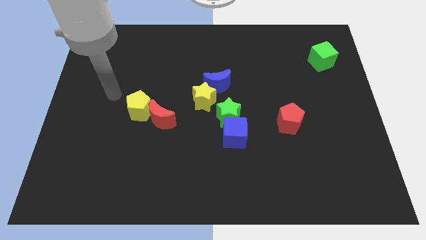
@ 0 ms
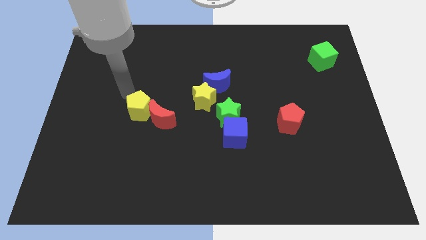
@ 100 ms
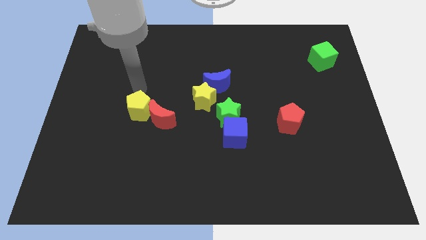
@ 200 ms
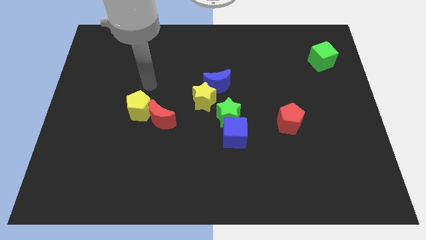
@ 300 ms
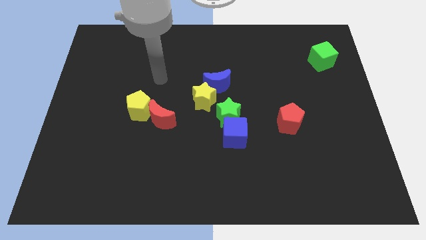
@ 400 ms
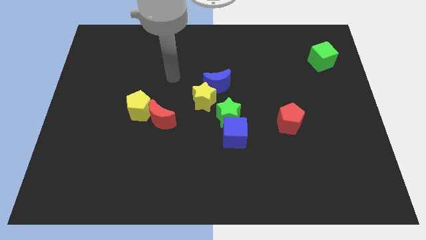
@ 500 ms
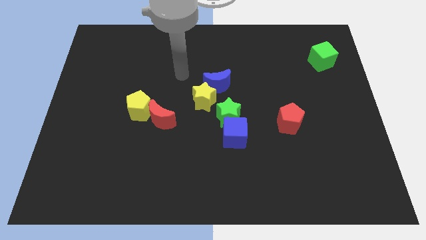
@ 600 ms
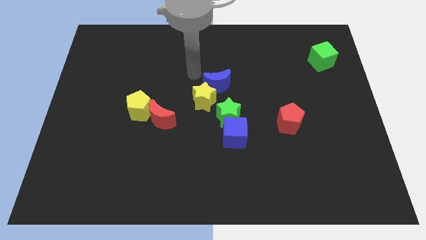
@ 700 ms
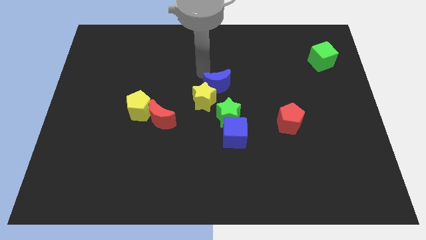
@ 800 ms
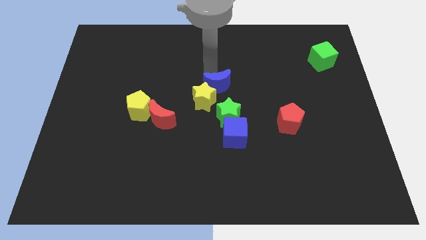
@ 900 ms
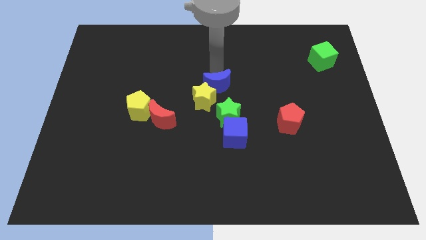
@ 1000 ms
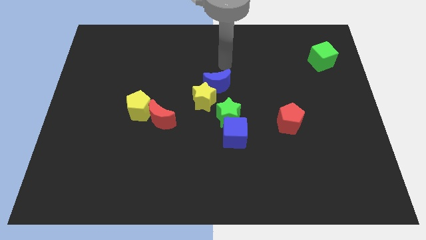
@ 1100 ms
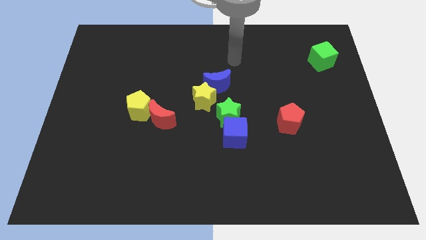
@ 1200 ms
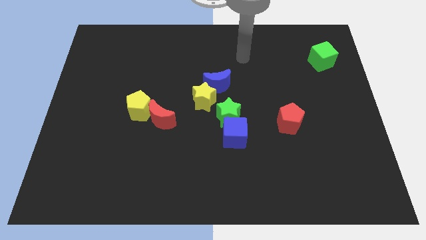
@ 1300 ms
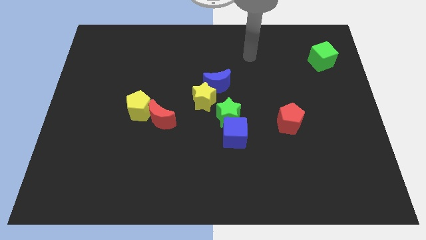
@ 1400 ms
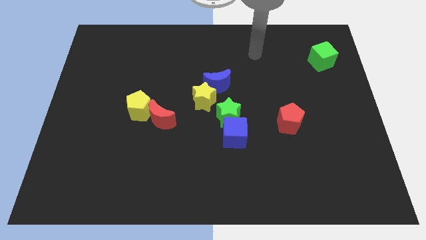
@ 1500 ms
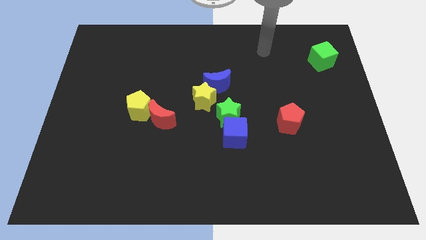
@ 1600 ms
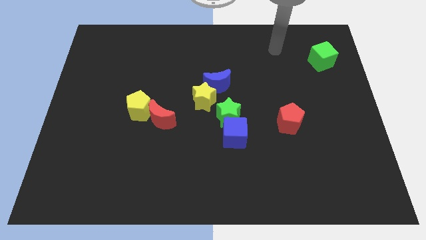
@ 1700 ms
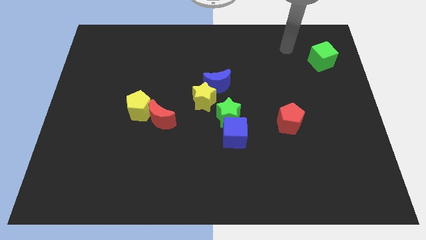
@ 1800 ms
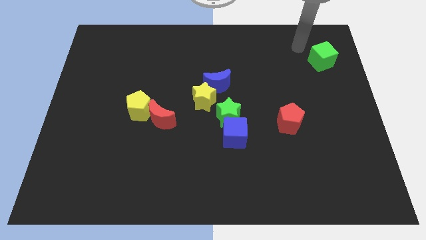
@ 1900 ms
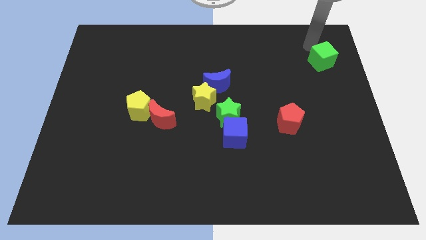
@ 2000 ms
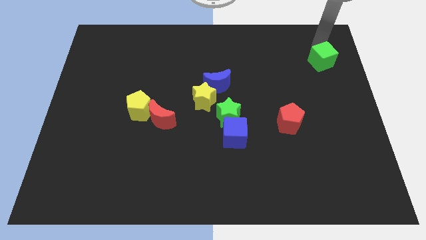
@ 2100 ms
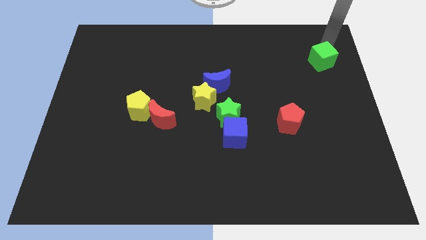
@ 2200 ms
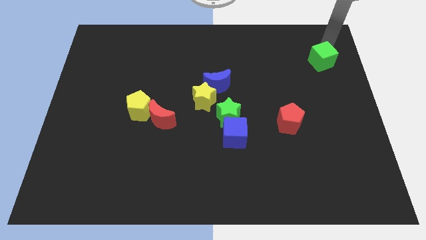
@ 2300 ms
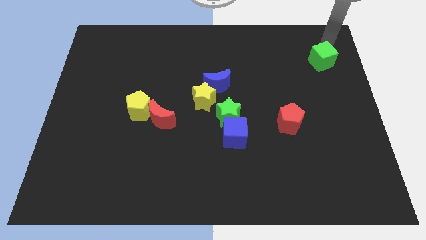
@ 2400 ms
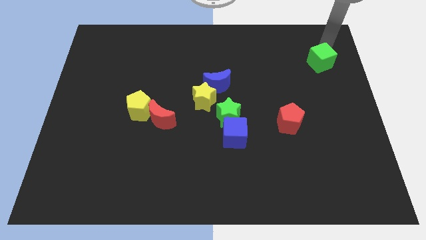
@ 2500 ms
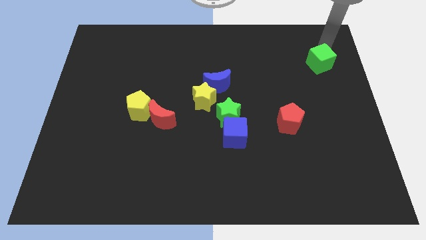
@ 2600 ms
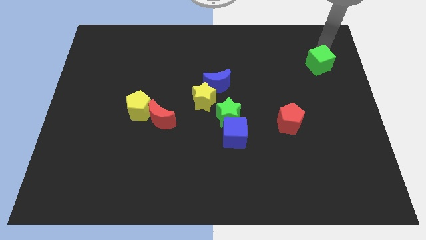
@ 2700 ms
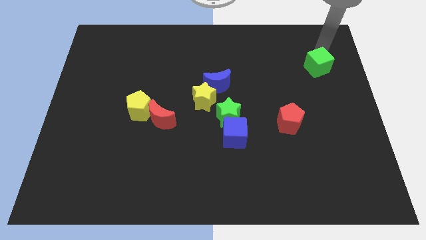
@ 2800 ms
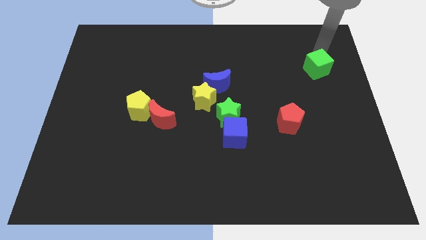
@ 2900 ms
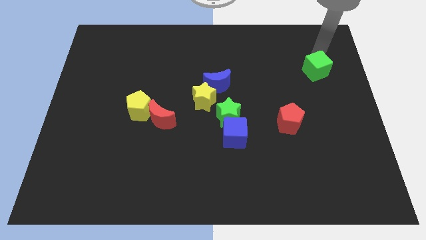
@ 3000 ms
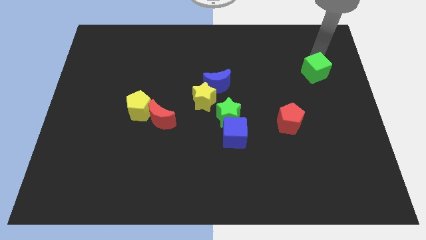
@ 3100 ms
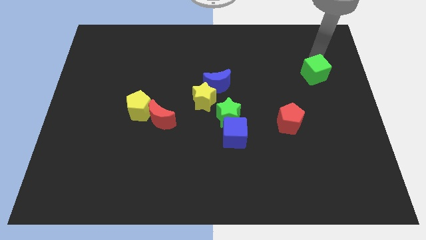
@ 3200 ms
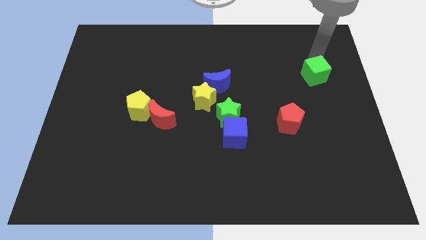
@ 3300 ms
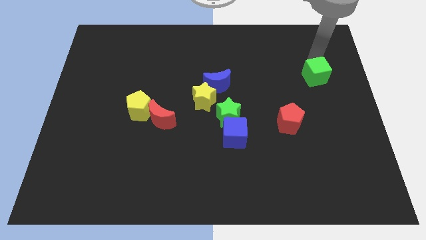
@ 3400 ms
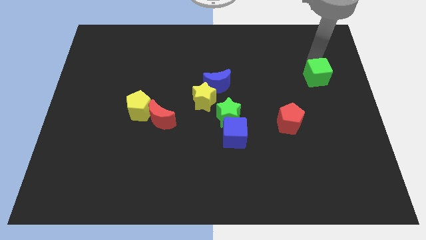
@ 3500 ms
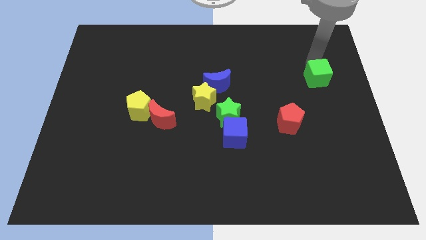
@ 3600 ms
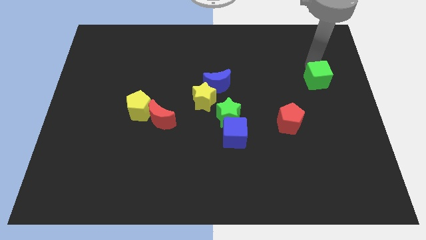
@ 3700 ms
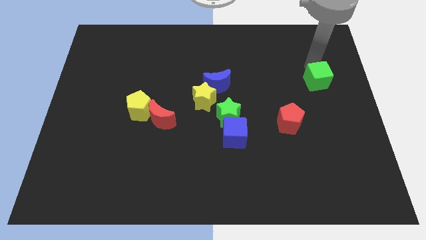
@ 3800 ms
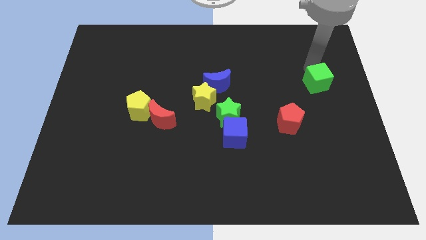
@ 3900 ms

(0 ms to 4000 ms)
slightly push the green cube down and left diagonally

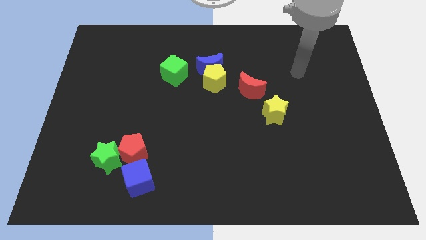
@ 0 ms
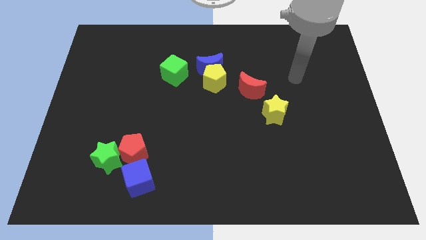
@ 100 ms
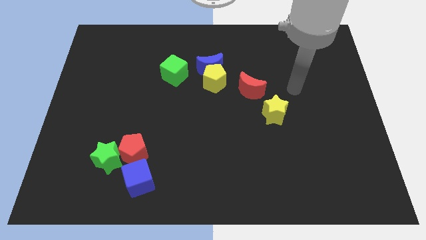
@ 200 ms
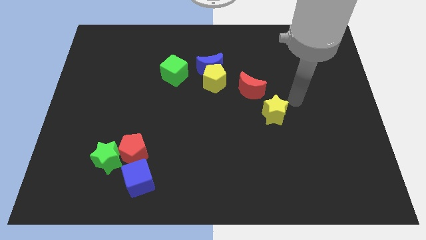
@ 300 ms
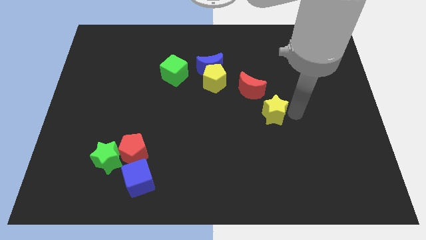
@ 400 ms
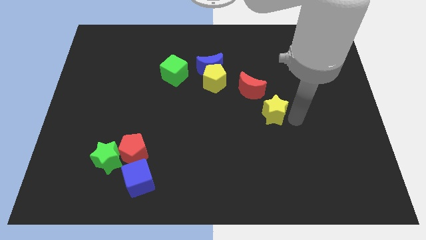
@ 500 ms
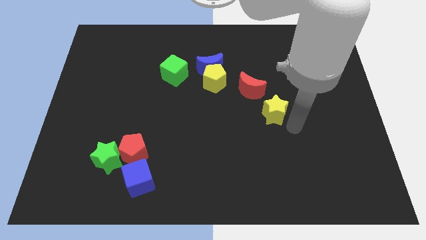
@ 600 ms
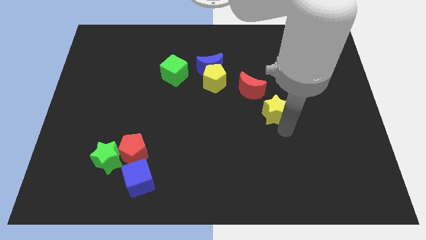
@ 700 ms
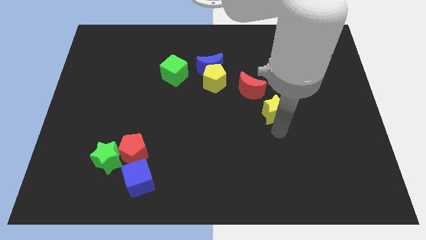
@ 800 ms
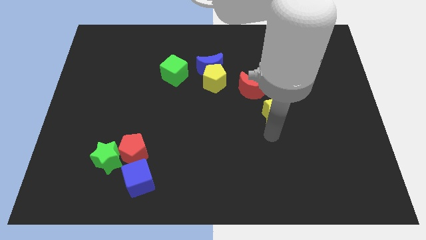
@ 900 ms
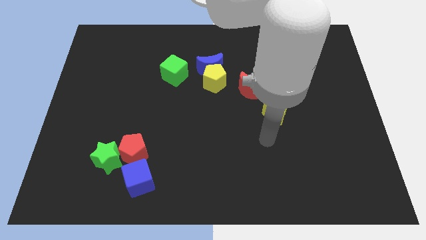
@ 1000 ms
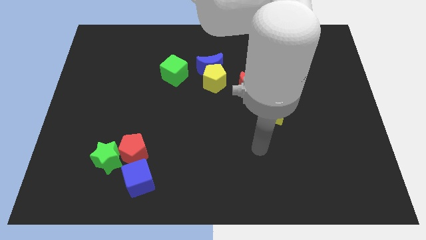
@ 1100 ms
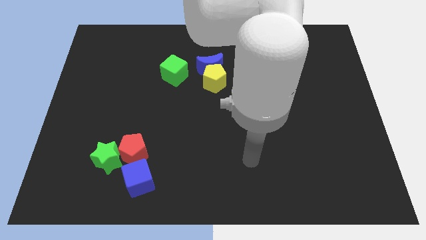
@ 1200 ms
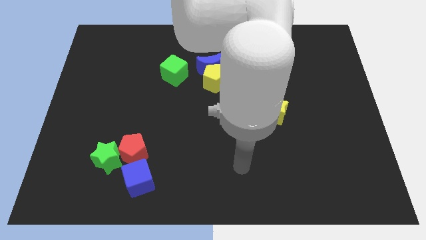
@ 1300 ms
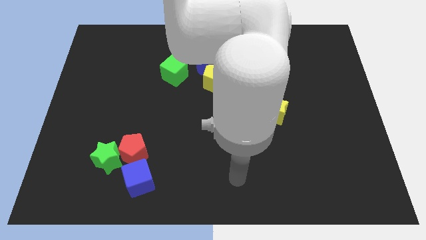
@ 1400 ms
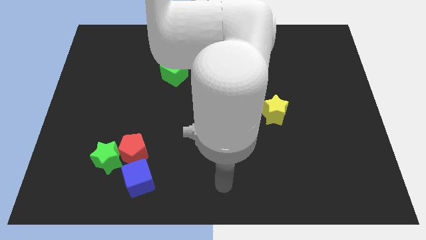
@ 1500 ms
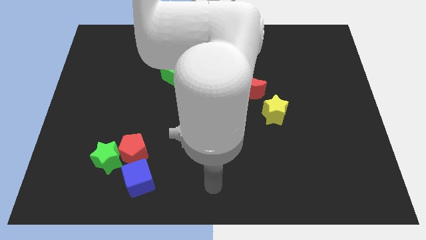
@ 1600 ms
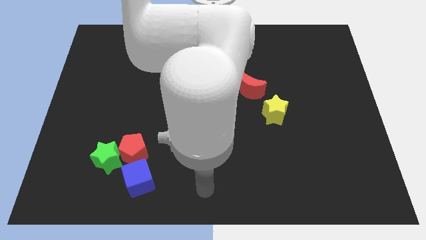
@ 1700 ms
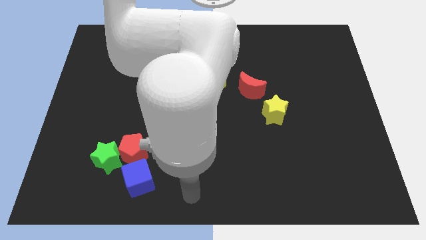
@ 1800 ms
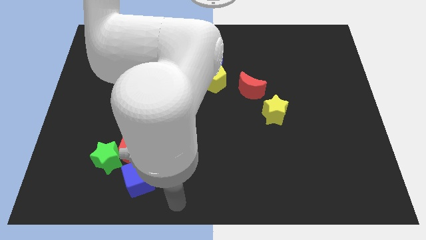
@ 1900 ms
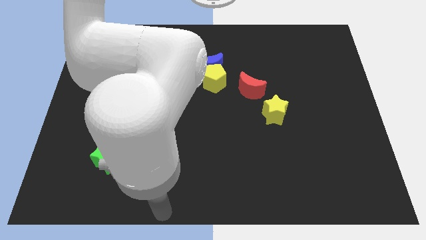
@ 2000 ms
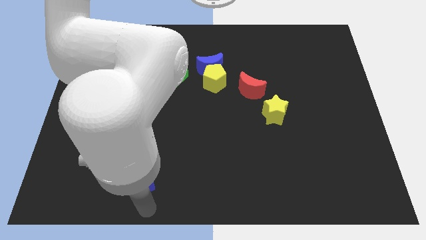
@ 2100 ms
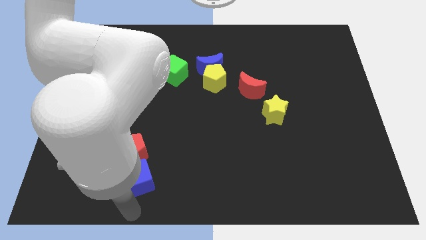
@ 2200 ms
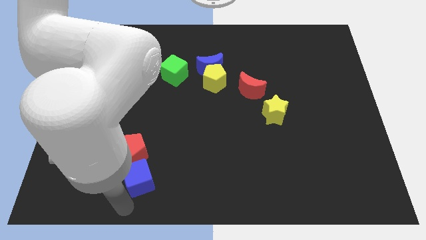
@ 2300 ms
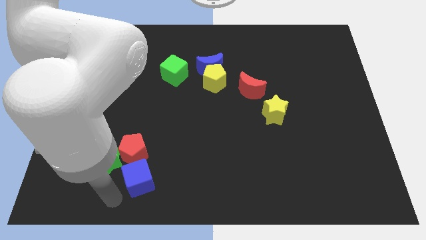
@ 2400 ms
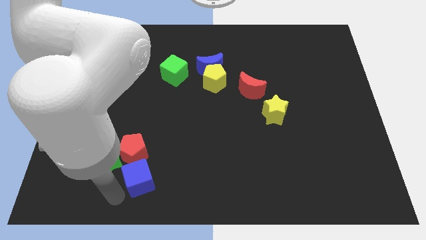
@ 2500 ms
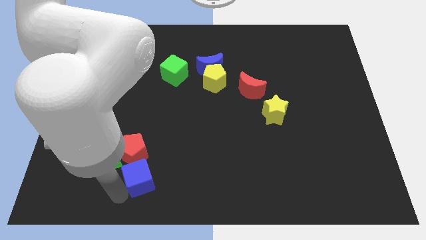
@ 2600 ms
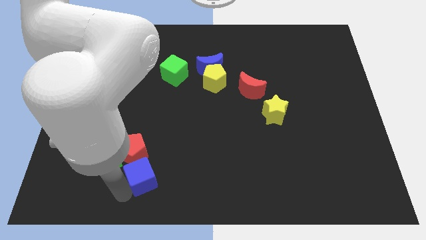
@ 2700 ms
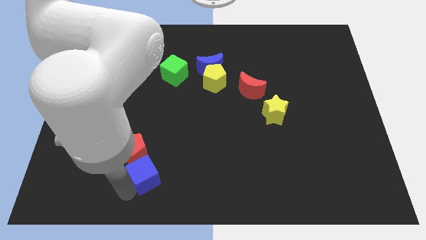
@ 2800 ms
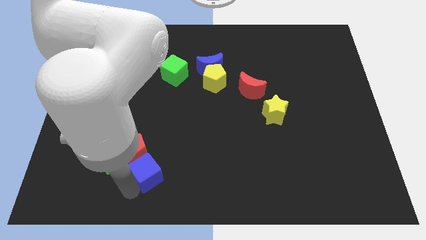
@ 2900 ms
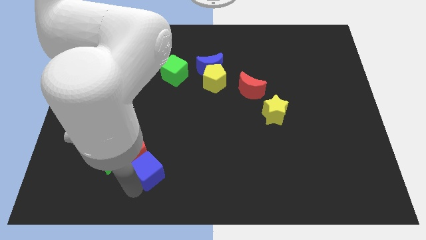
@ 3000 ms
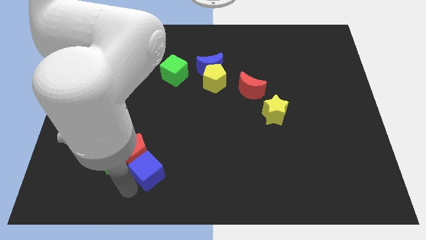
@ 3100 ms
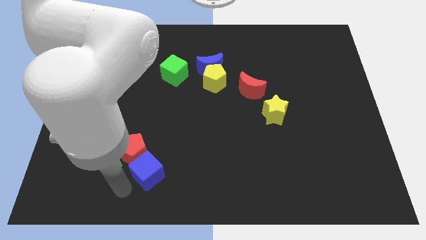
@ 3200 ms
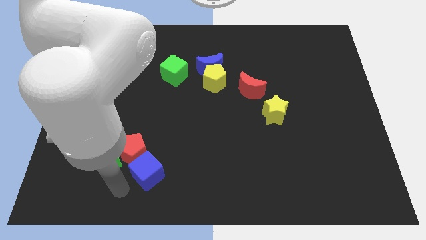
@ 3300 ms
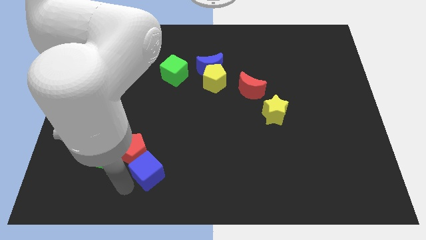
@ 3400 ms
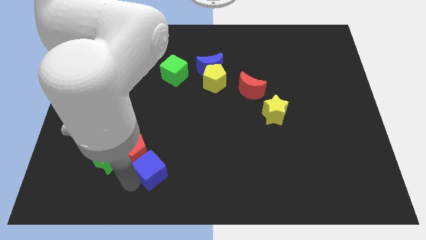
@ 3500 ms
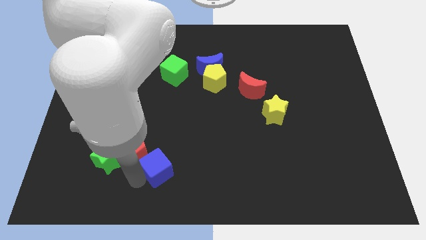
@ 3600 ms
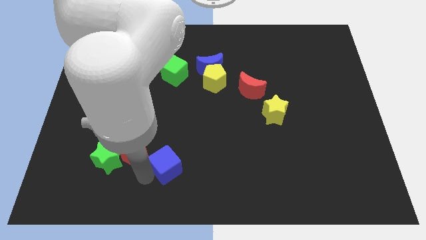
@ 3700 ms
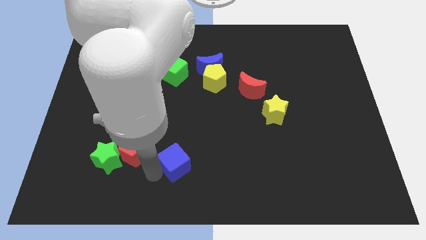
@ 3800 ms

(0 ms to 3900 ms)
move the blue cube somewhat up and right

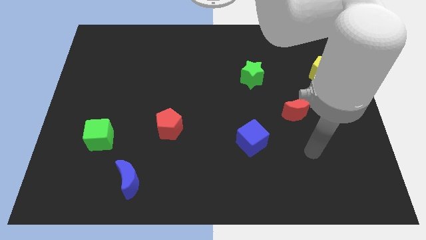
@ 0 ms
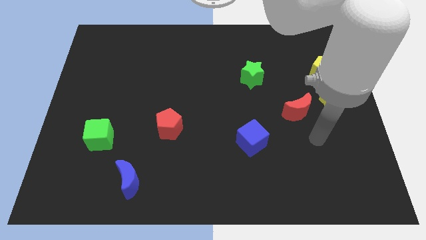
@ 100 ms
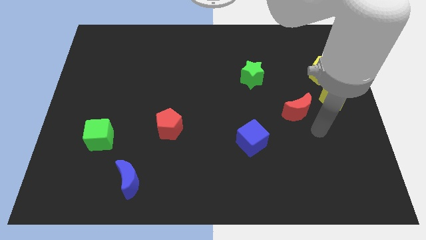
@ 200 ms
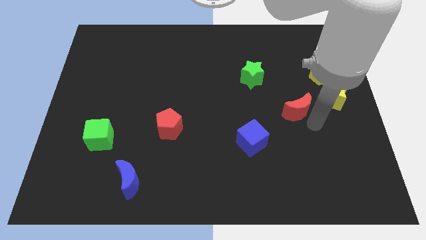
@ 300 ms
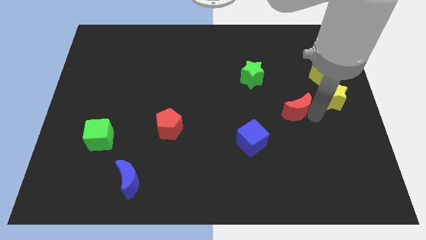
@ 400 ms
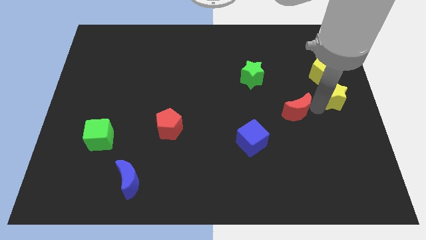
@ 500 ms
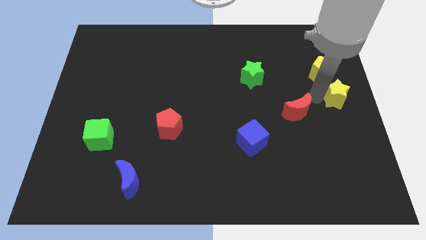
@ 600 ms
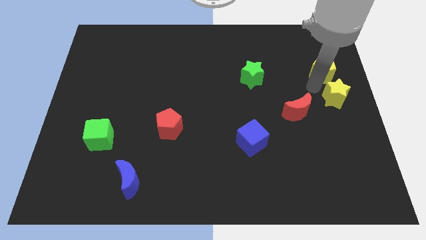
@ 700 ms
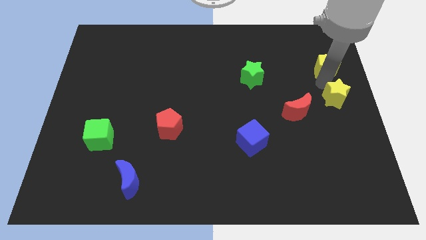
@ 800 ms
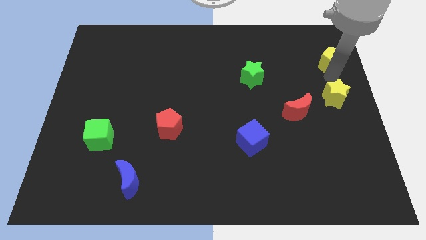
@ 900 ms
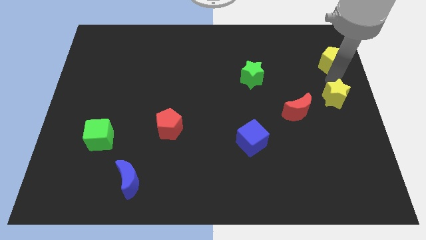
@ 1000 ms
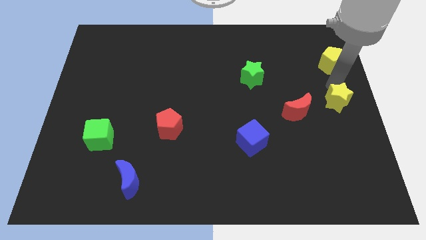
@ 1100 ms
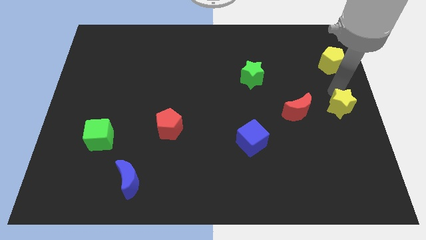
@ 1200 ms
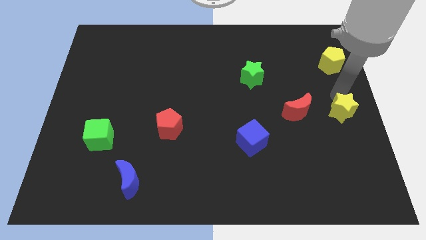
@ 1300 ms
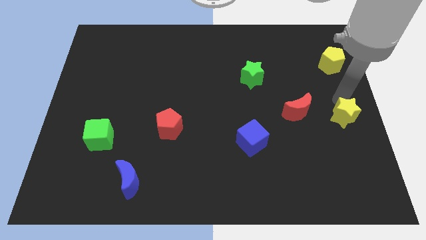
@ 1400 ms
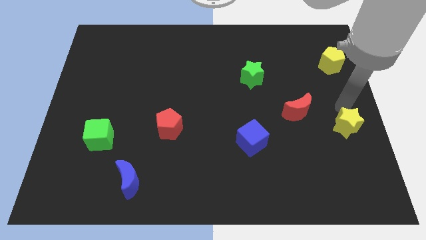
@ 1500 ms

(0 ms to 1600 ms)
push the yellow star down somewhat
